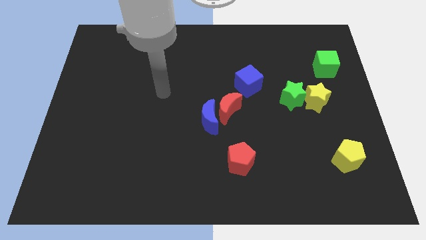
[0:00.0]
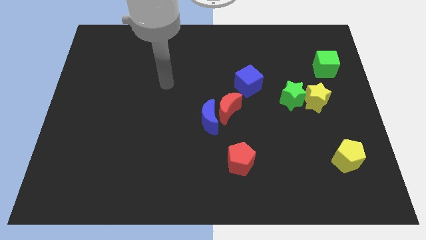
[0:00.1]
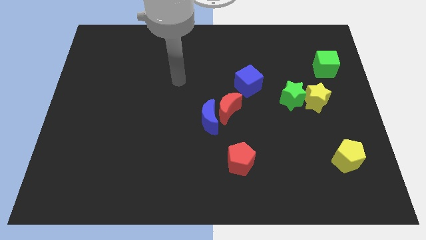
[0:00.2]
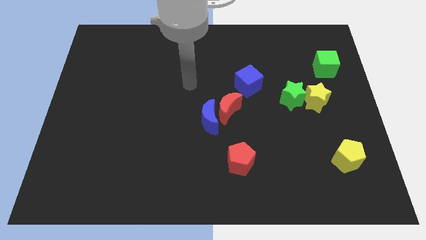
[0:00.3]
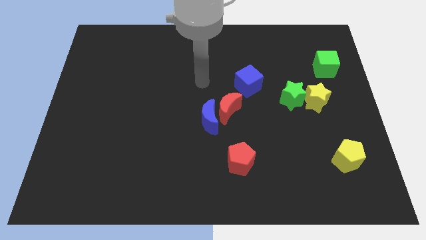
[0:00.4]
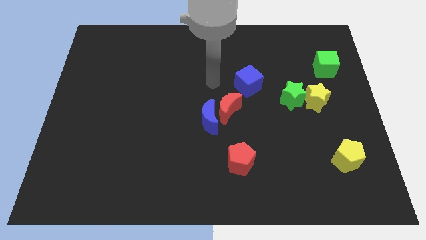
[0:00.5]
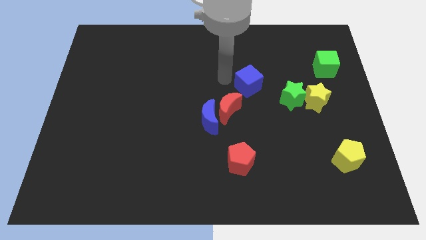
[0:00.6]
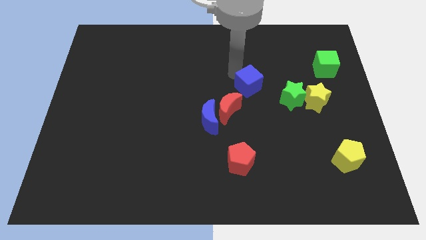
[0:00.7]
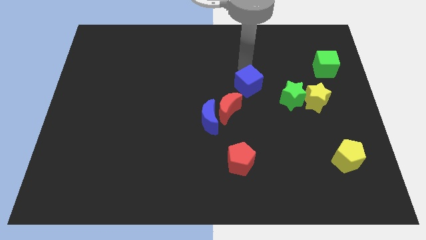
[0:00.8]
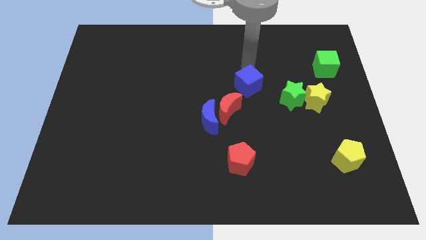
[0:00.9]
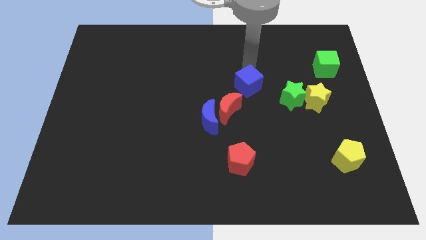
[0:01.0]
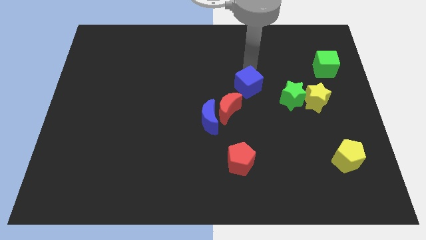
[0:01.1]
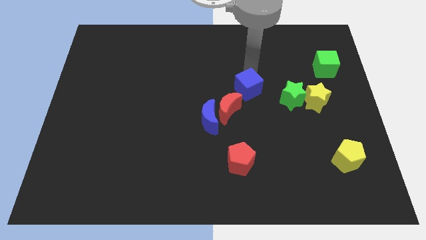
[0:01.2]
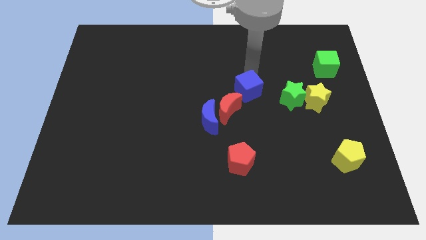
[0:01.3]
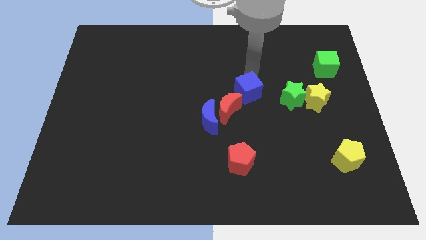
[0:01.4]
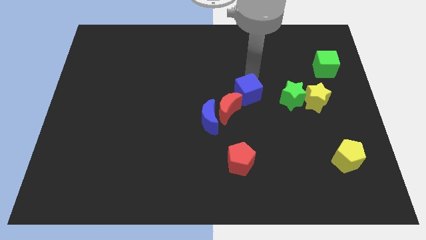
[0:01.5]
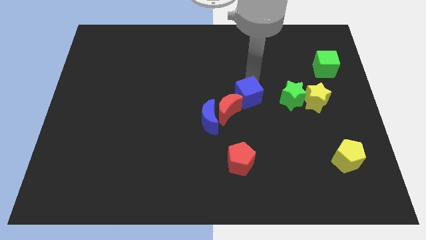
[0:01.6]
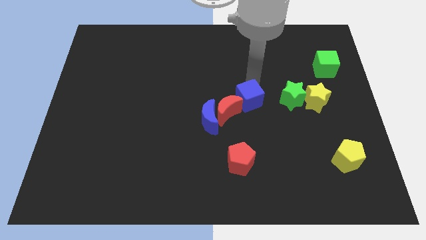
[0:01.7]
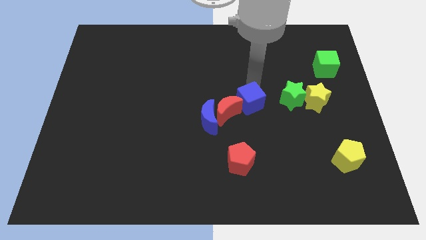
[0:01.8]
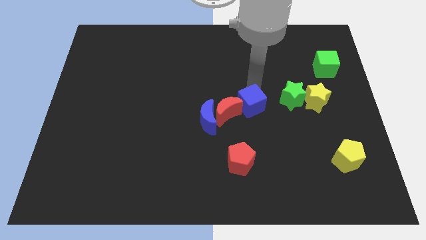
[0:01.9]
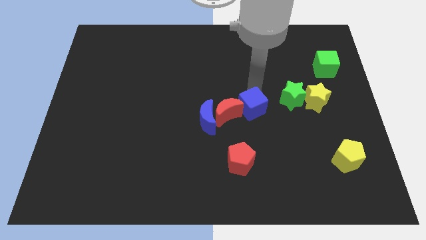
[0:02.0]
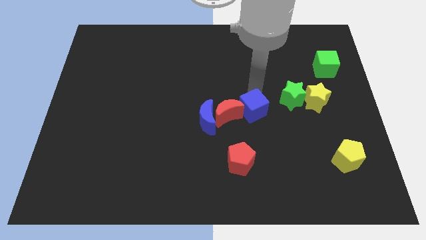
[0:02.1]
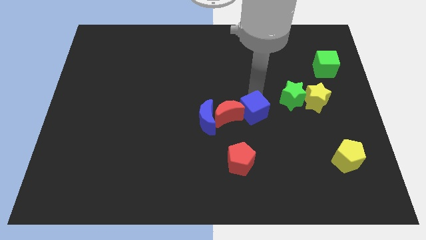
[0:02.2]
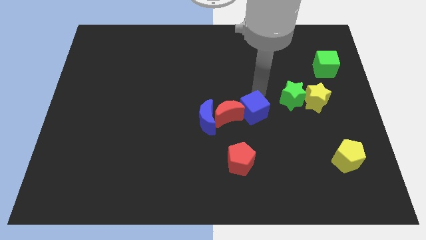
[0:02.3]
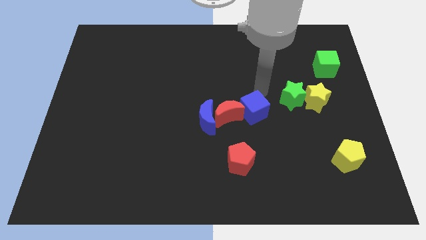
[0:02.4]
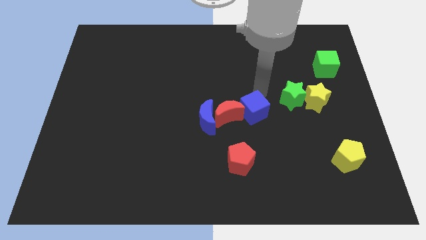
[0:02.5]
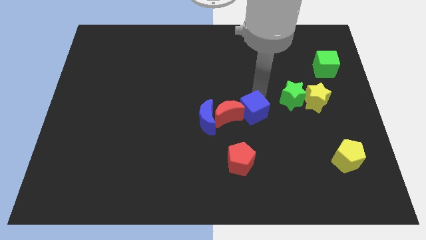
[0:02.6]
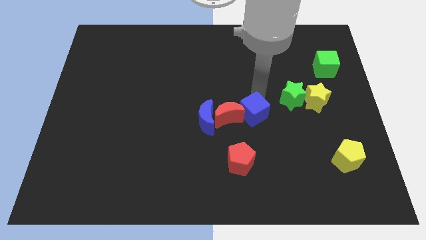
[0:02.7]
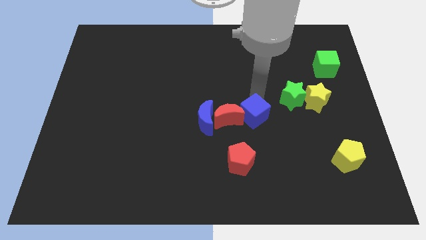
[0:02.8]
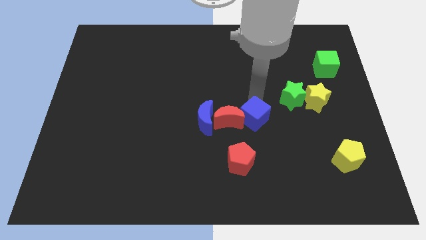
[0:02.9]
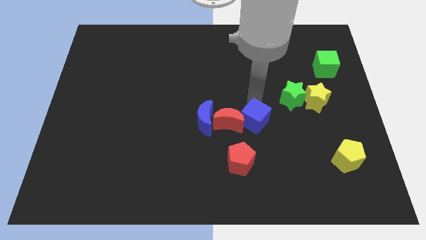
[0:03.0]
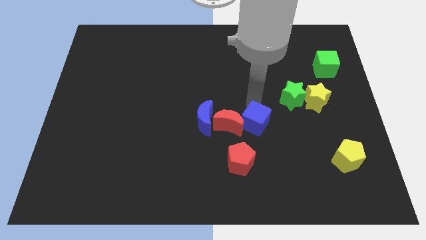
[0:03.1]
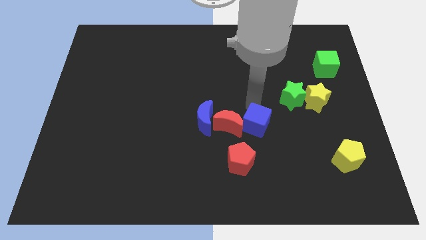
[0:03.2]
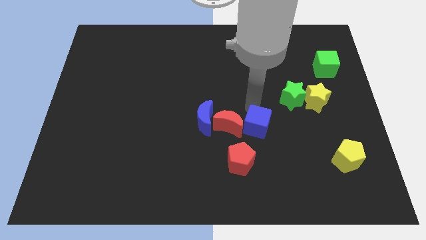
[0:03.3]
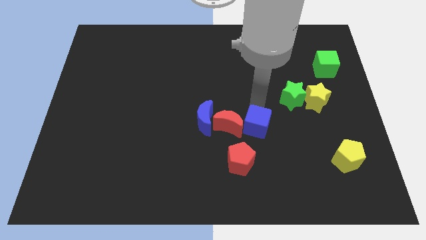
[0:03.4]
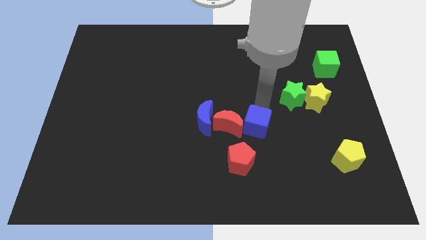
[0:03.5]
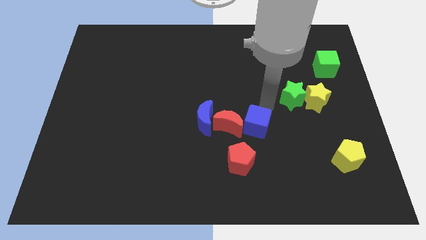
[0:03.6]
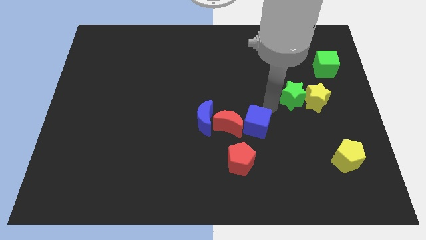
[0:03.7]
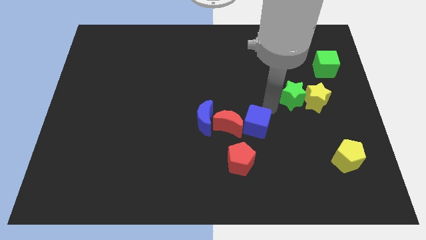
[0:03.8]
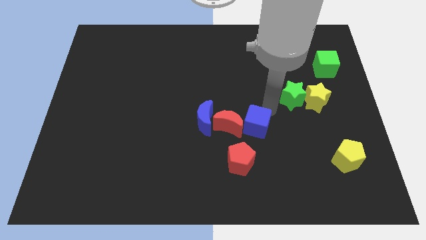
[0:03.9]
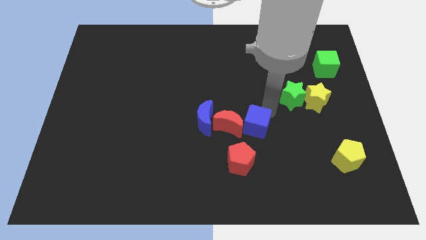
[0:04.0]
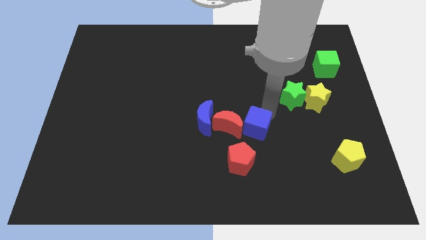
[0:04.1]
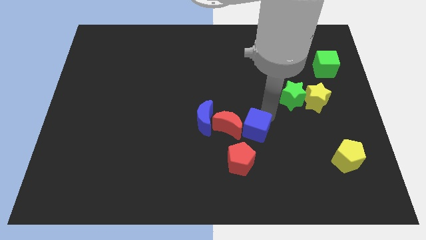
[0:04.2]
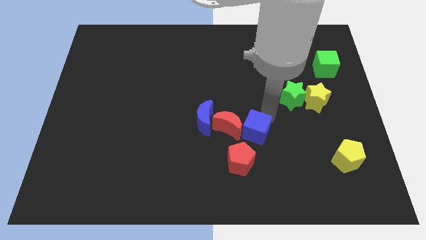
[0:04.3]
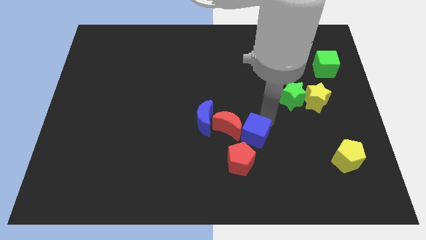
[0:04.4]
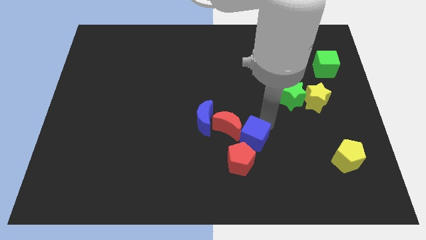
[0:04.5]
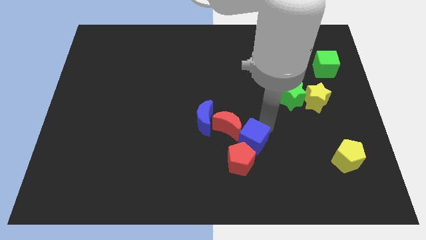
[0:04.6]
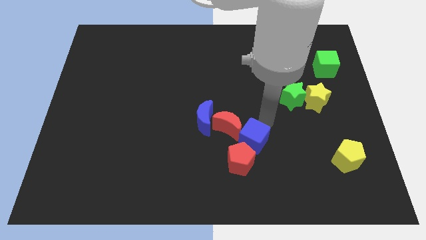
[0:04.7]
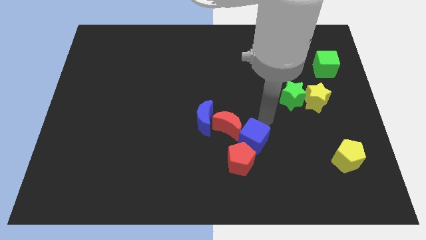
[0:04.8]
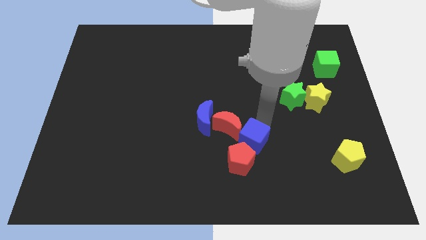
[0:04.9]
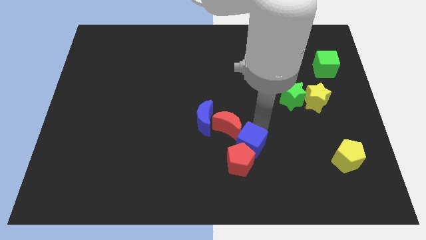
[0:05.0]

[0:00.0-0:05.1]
move the blue cube towards the red pentagon

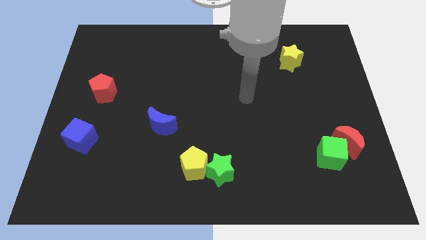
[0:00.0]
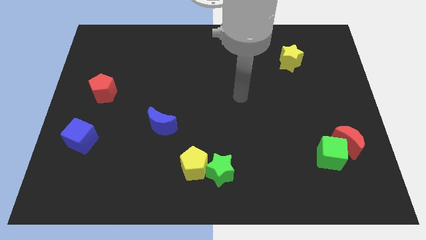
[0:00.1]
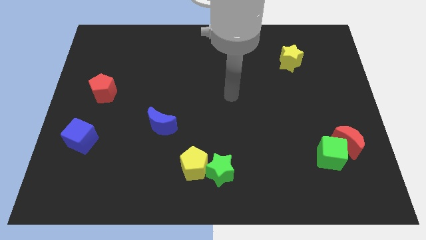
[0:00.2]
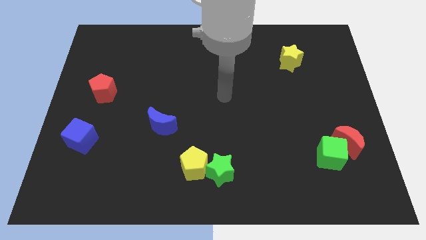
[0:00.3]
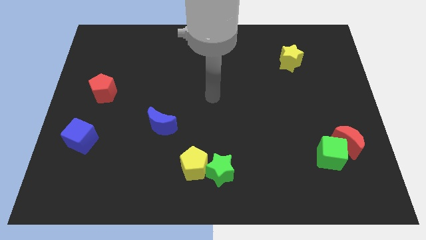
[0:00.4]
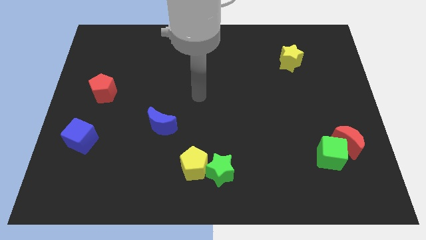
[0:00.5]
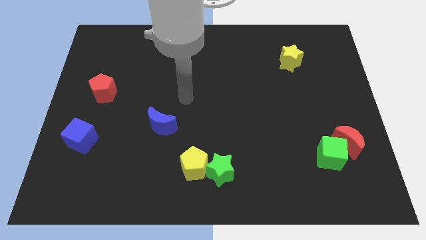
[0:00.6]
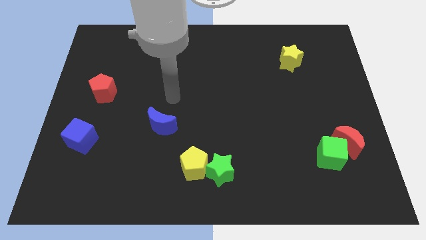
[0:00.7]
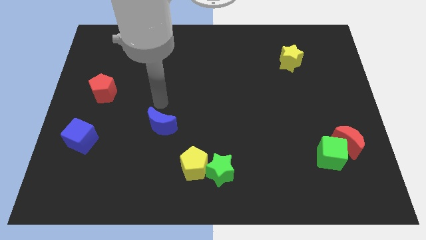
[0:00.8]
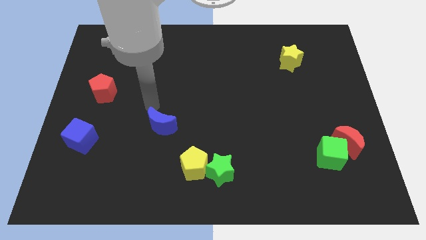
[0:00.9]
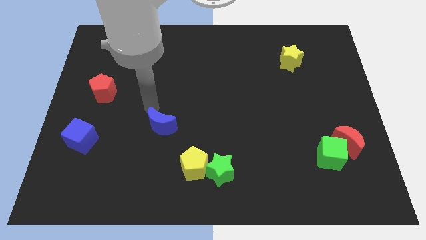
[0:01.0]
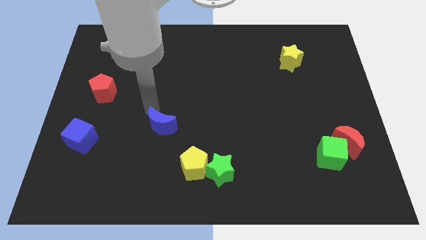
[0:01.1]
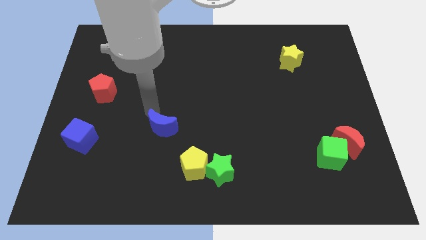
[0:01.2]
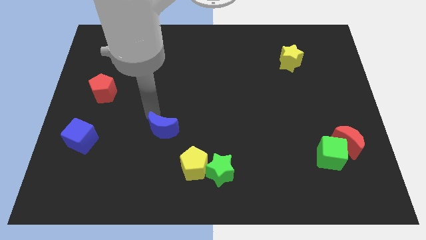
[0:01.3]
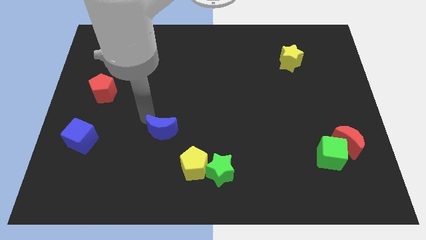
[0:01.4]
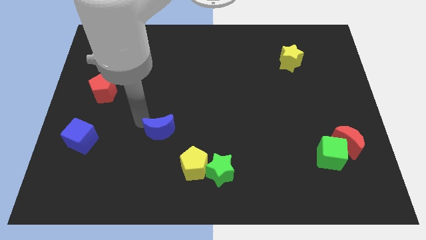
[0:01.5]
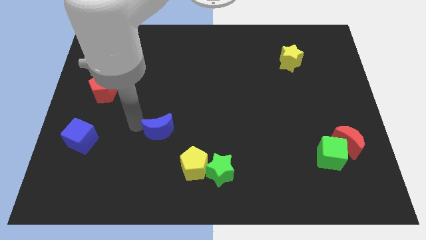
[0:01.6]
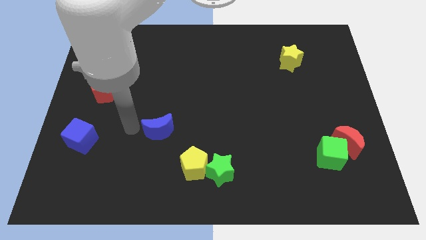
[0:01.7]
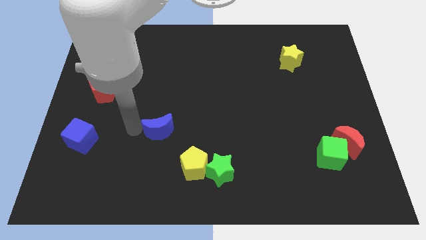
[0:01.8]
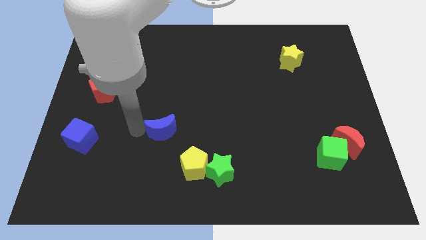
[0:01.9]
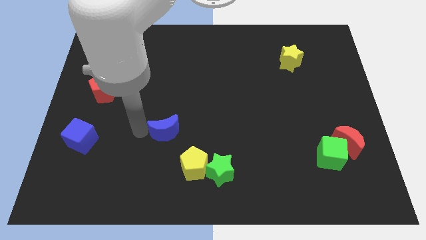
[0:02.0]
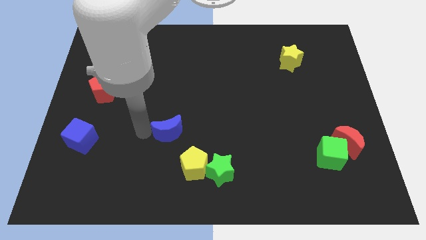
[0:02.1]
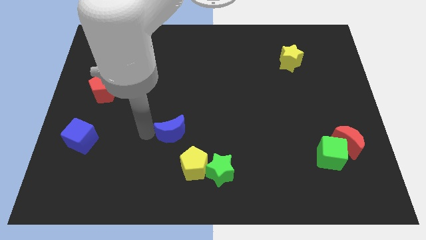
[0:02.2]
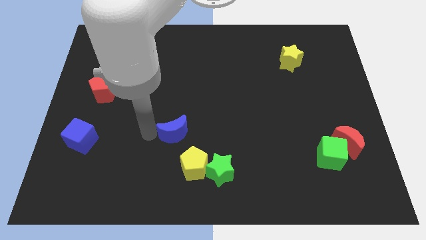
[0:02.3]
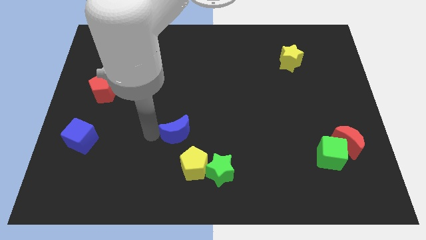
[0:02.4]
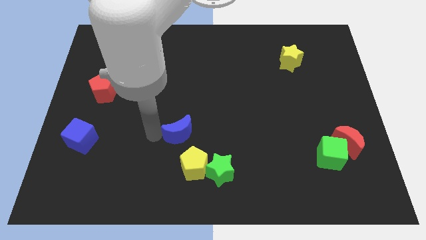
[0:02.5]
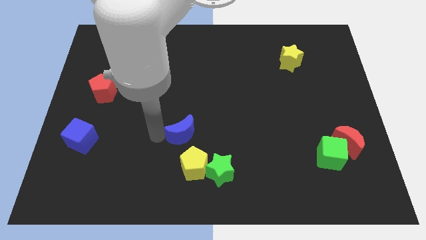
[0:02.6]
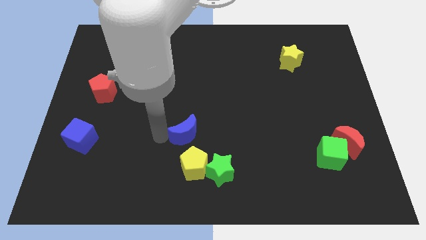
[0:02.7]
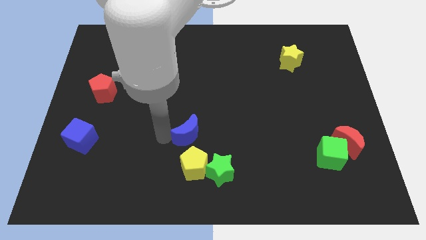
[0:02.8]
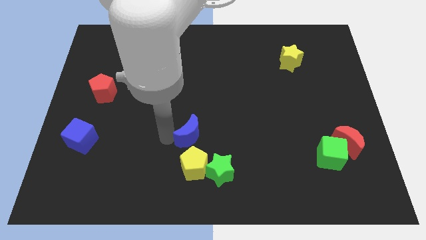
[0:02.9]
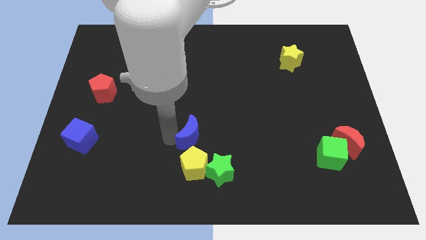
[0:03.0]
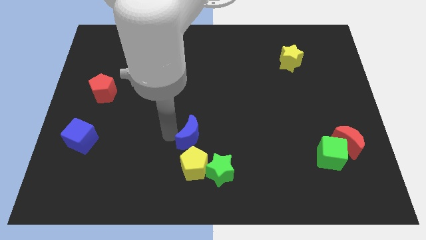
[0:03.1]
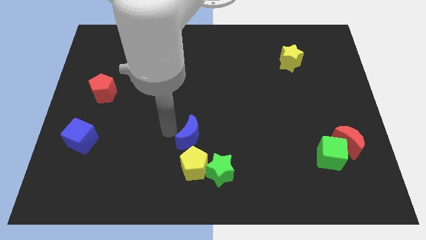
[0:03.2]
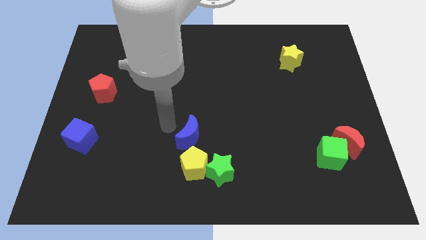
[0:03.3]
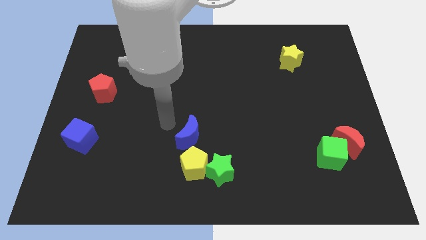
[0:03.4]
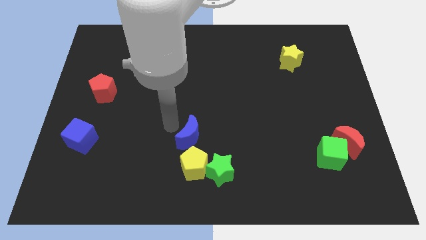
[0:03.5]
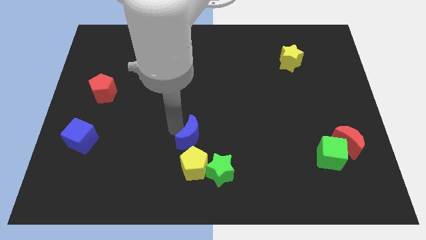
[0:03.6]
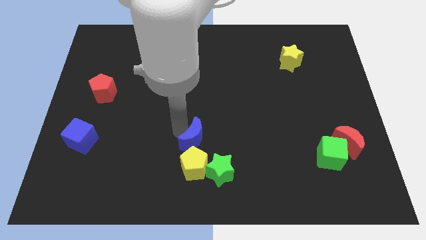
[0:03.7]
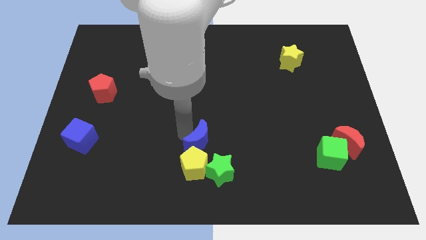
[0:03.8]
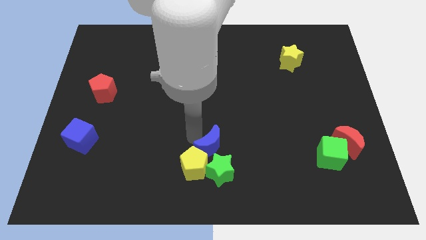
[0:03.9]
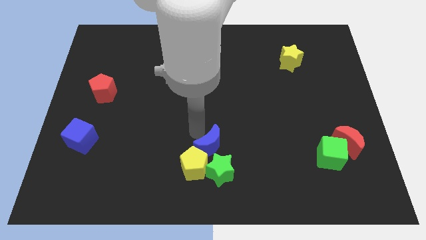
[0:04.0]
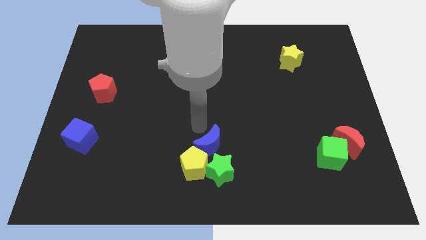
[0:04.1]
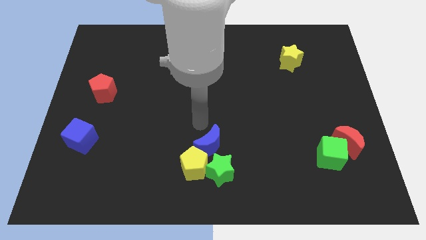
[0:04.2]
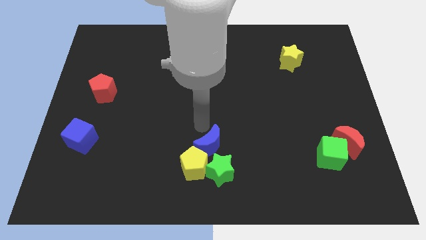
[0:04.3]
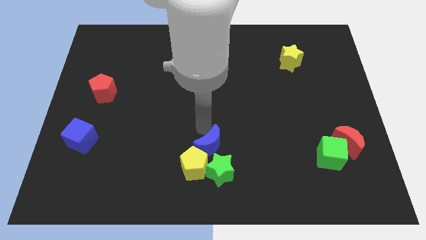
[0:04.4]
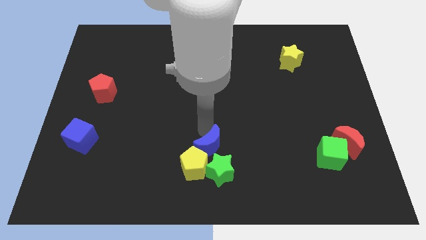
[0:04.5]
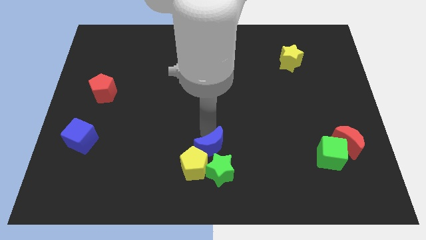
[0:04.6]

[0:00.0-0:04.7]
slide the blue moon to the green star
